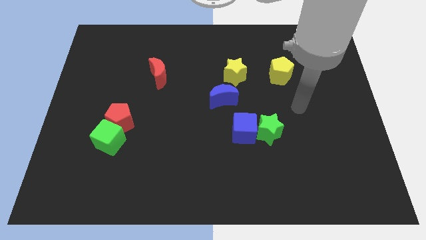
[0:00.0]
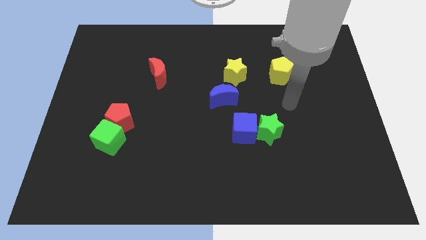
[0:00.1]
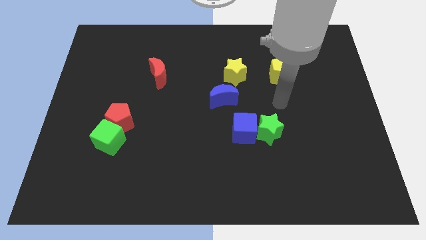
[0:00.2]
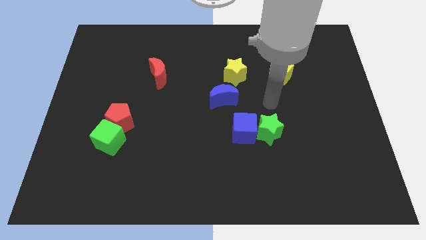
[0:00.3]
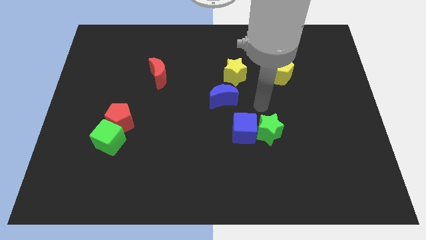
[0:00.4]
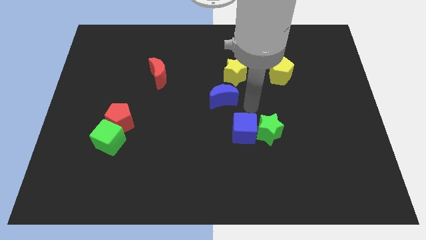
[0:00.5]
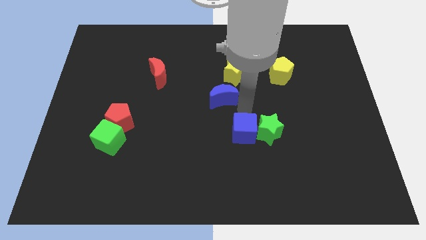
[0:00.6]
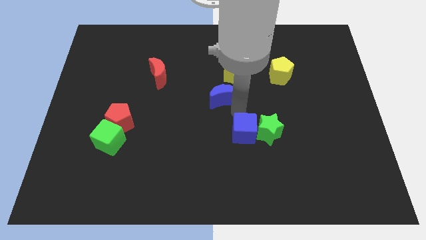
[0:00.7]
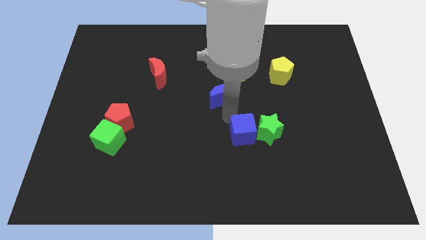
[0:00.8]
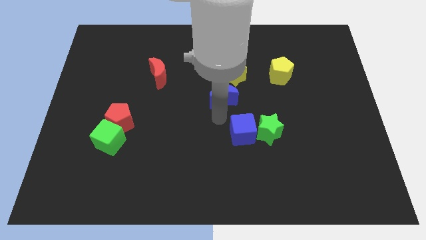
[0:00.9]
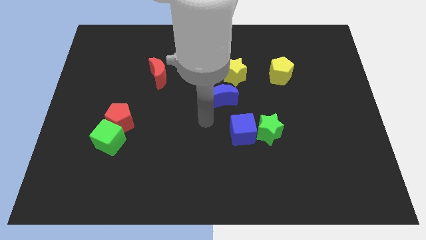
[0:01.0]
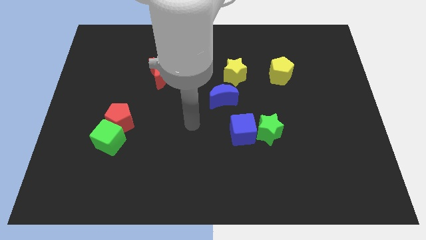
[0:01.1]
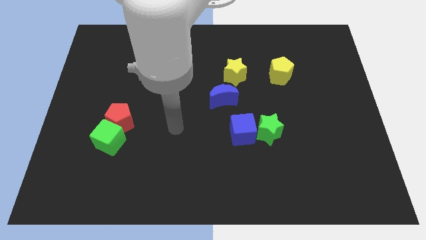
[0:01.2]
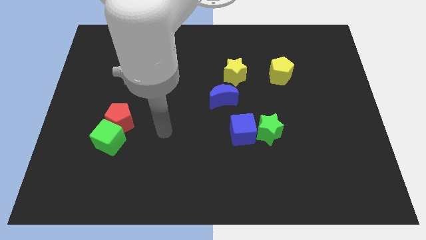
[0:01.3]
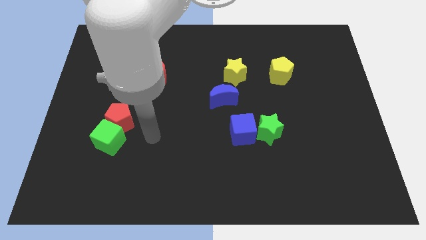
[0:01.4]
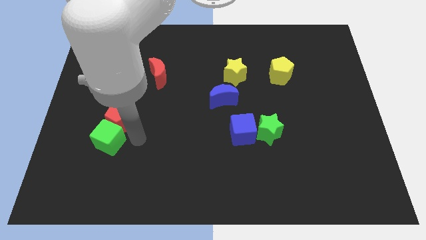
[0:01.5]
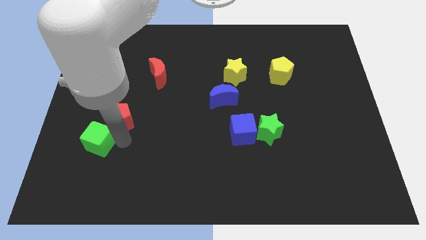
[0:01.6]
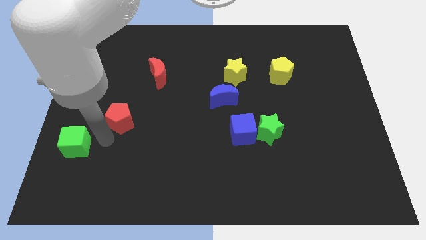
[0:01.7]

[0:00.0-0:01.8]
move the red pentagon away from the green cube

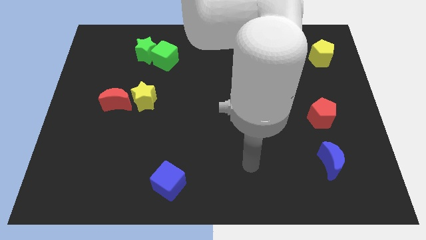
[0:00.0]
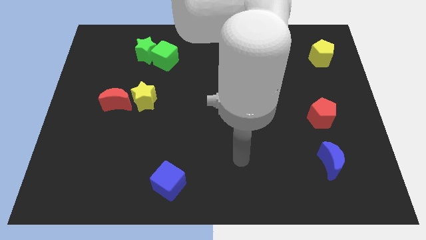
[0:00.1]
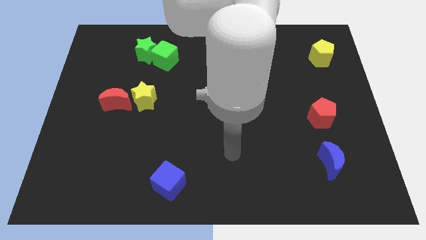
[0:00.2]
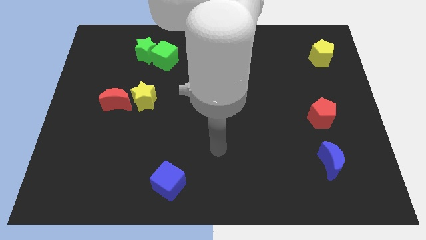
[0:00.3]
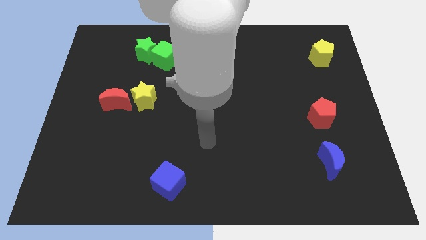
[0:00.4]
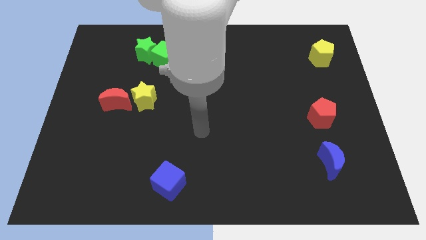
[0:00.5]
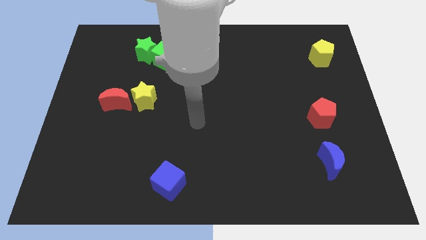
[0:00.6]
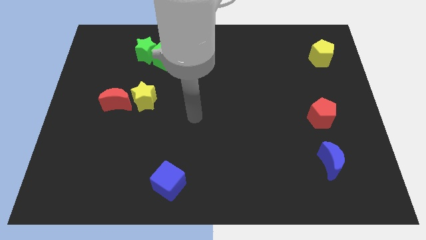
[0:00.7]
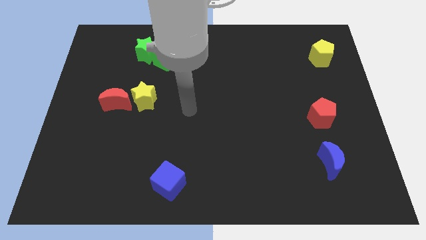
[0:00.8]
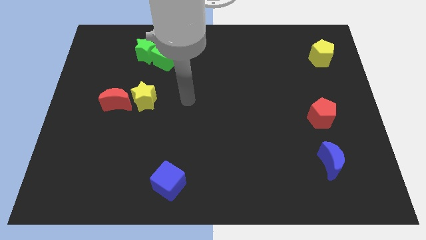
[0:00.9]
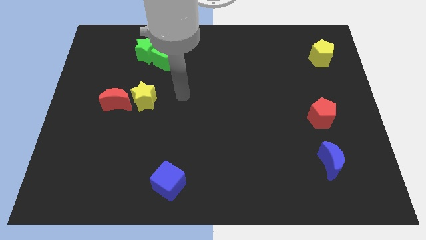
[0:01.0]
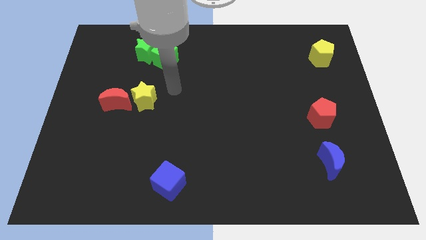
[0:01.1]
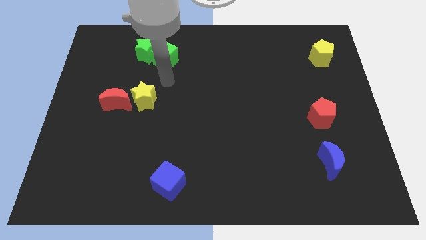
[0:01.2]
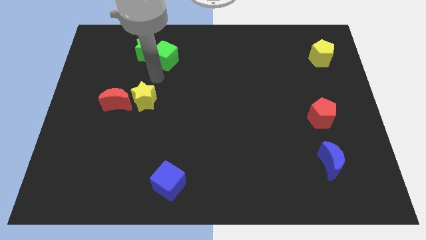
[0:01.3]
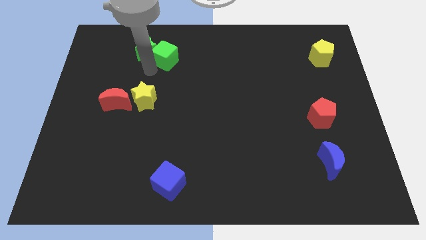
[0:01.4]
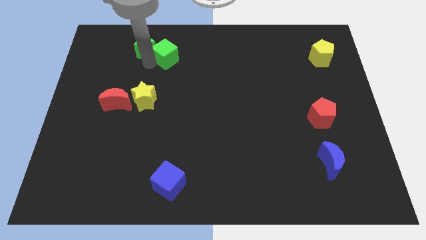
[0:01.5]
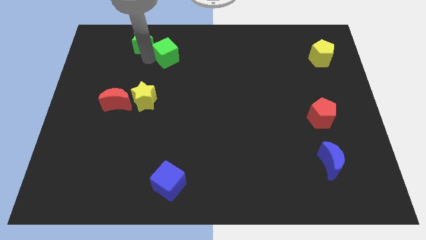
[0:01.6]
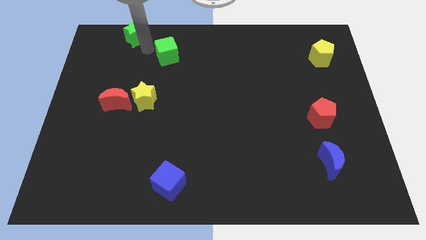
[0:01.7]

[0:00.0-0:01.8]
separate the green cube from the green star

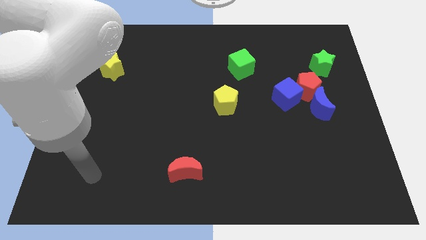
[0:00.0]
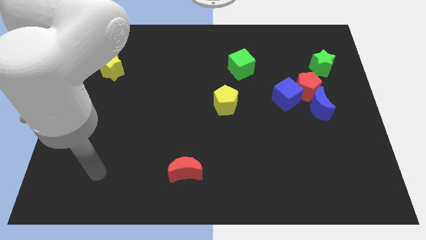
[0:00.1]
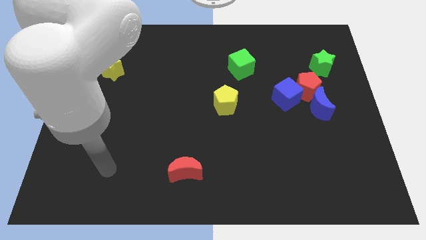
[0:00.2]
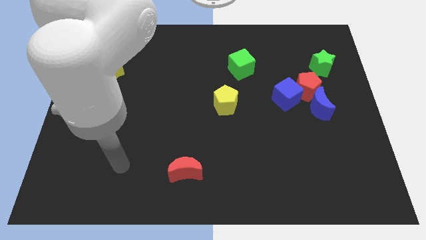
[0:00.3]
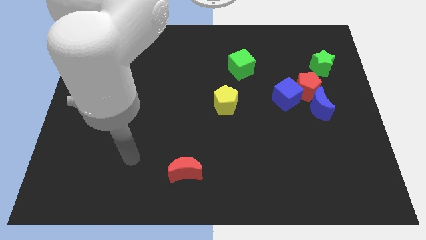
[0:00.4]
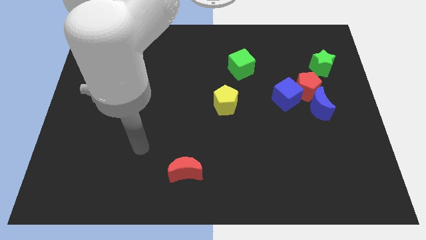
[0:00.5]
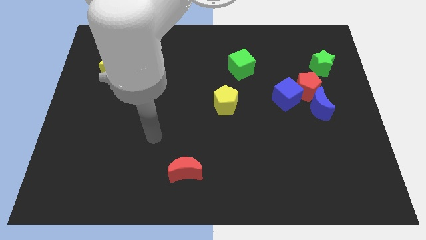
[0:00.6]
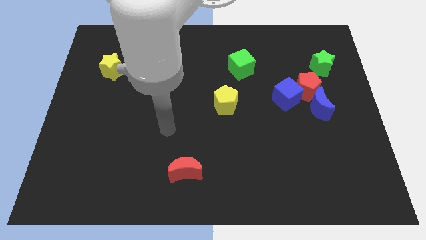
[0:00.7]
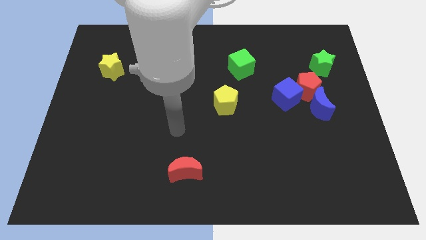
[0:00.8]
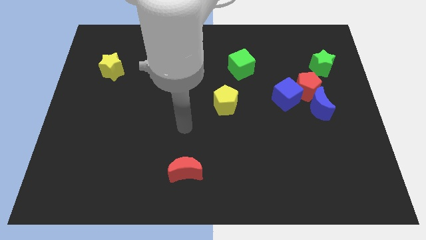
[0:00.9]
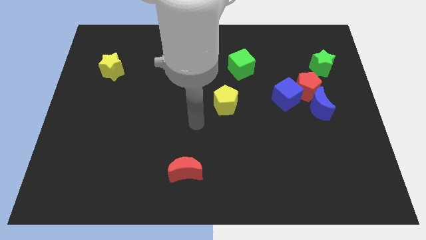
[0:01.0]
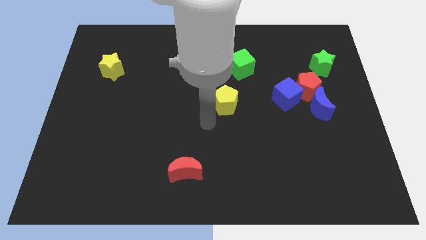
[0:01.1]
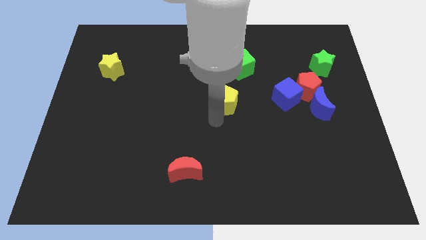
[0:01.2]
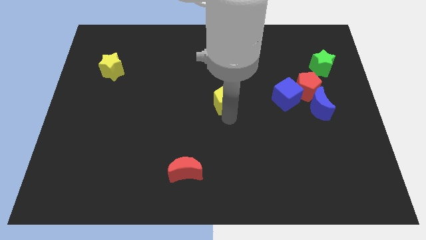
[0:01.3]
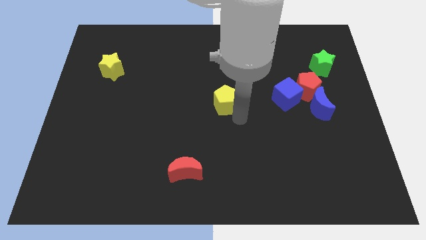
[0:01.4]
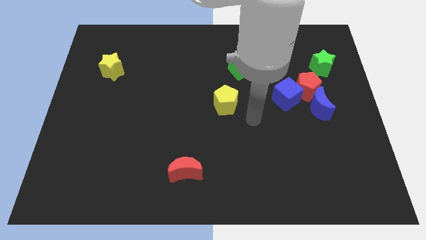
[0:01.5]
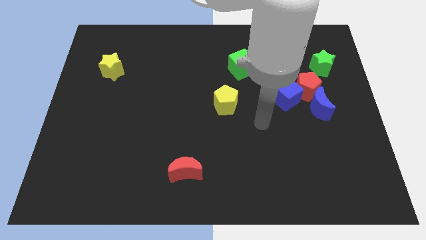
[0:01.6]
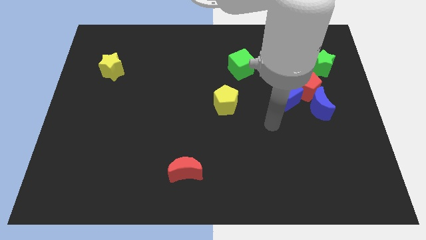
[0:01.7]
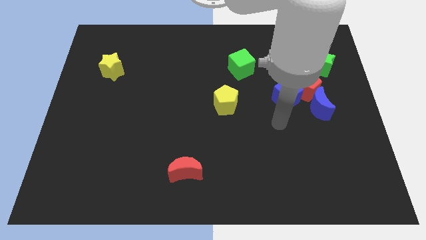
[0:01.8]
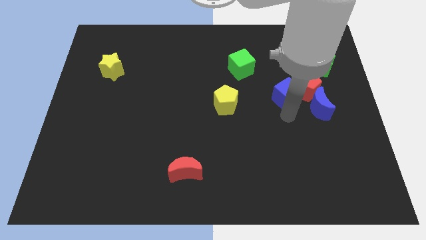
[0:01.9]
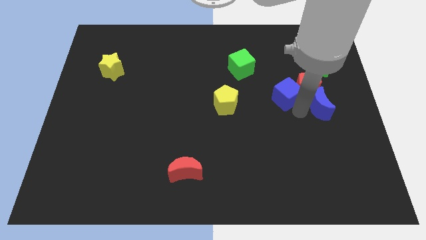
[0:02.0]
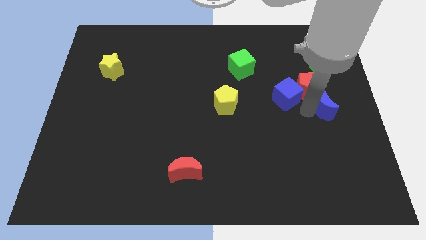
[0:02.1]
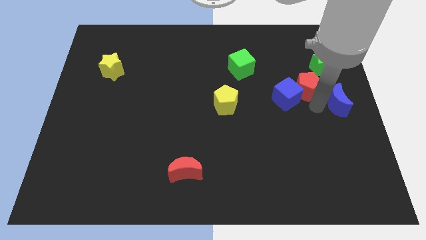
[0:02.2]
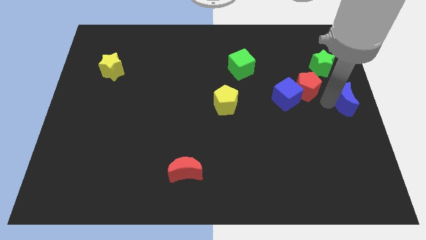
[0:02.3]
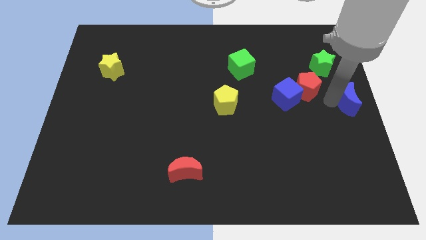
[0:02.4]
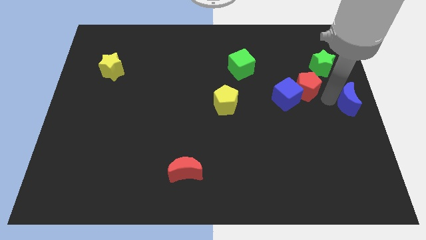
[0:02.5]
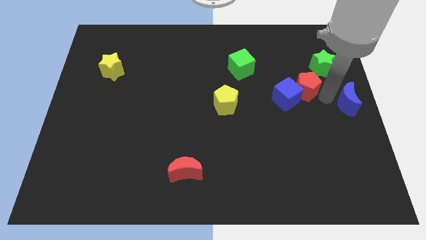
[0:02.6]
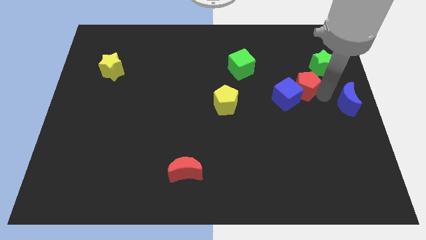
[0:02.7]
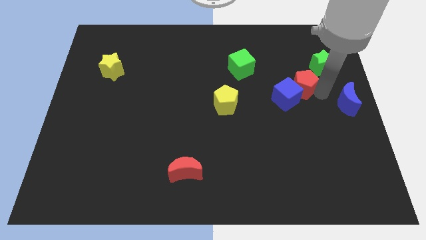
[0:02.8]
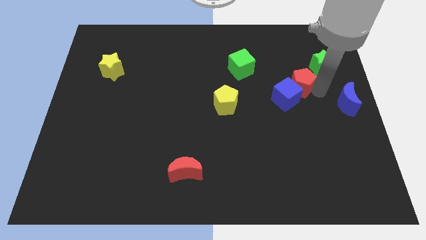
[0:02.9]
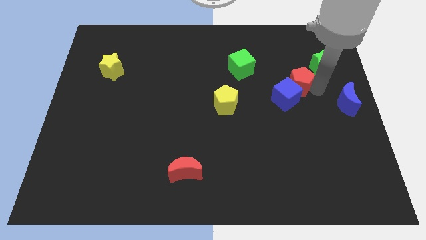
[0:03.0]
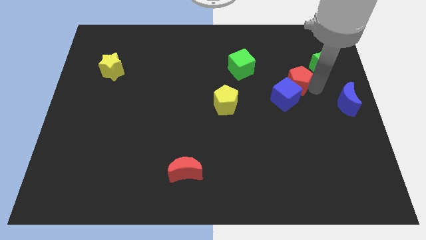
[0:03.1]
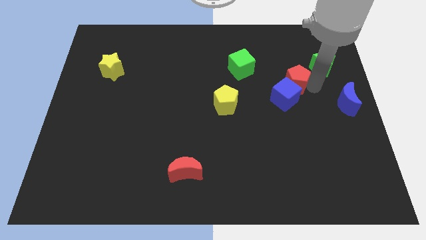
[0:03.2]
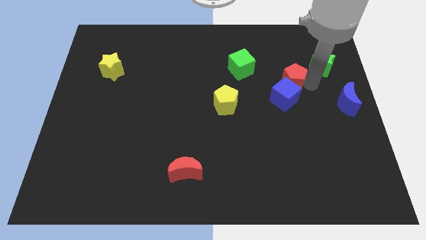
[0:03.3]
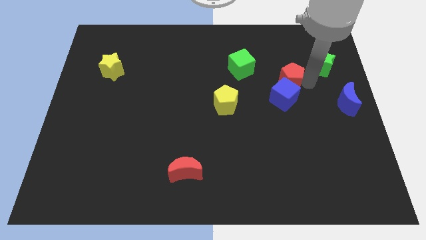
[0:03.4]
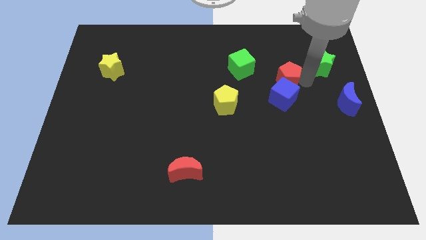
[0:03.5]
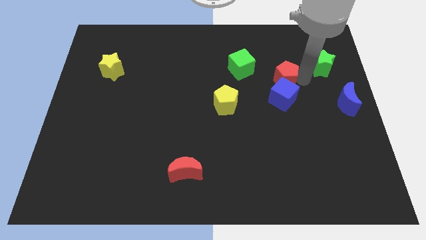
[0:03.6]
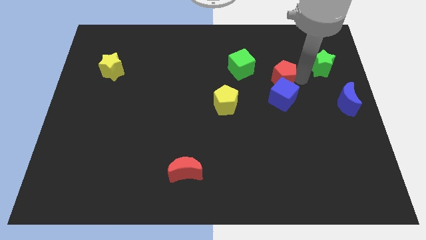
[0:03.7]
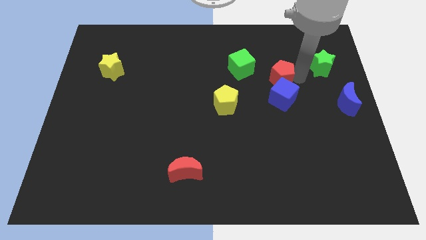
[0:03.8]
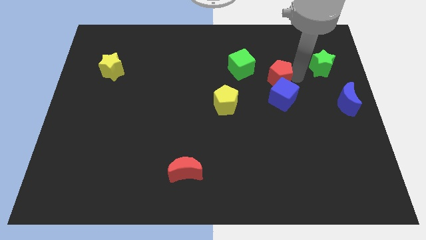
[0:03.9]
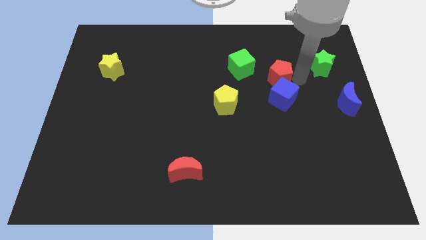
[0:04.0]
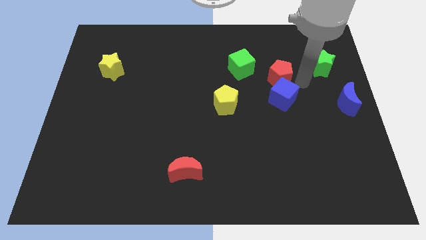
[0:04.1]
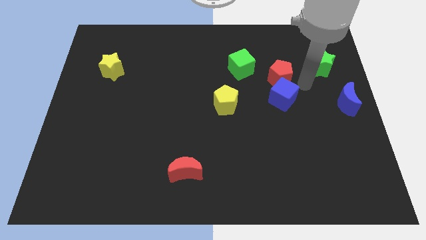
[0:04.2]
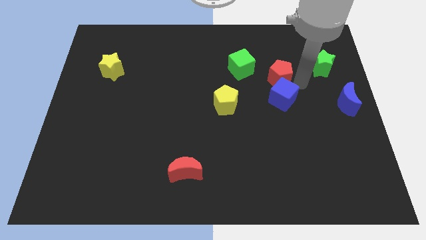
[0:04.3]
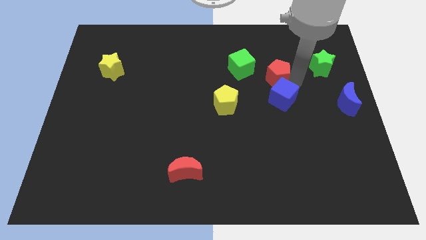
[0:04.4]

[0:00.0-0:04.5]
separate the red pentagon from the group

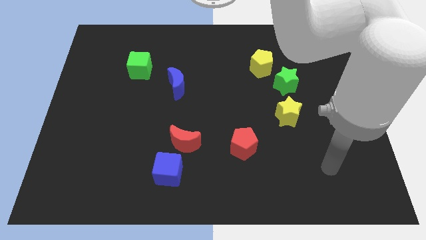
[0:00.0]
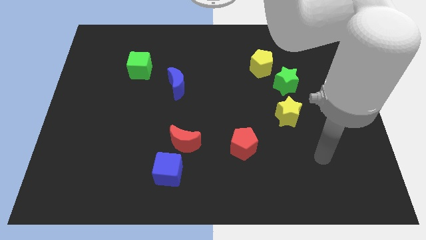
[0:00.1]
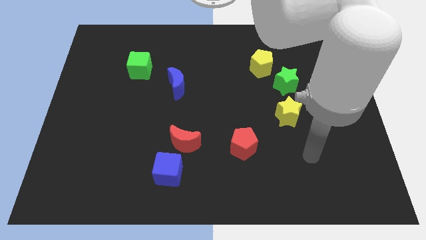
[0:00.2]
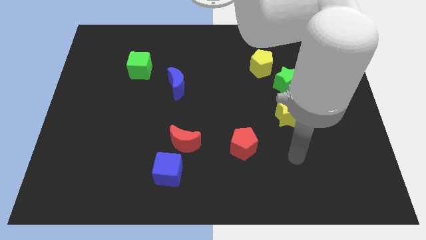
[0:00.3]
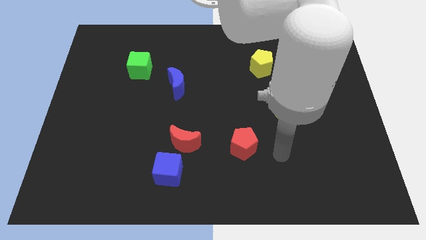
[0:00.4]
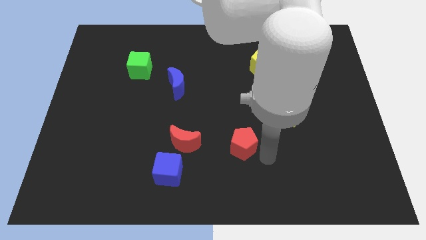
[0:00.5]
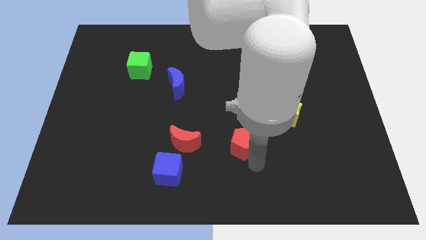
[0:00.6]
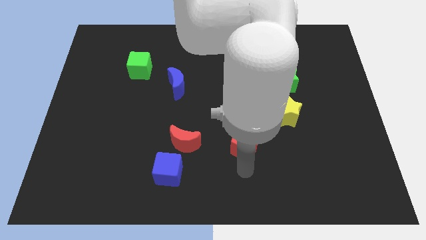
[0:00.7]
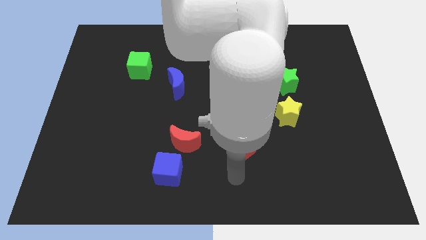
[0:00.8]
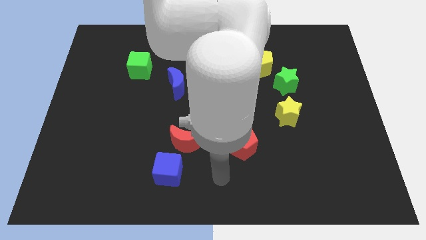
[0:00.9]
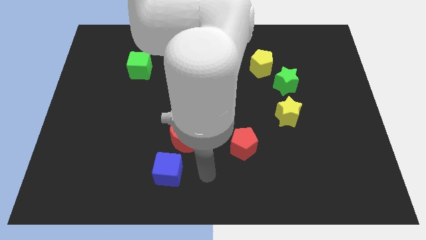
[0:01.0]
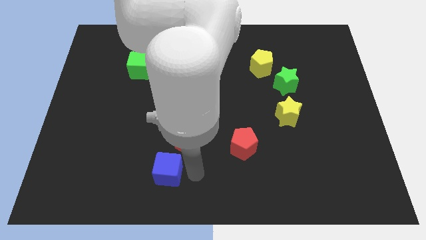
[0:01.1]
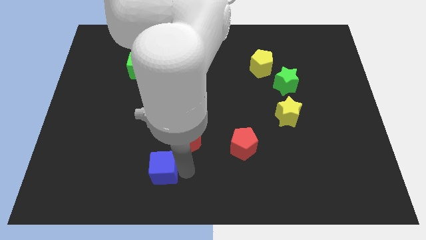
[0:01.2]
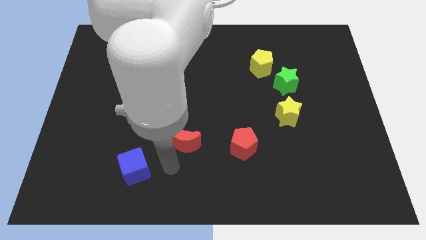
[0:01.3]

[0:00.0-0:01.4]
separate the red moon from the blue cube
